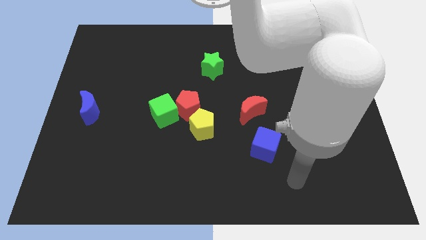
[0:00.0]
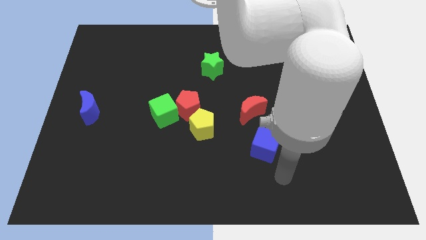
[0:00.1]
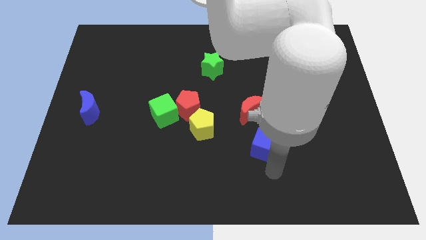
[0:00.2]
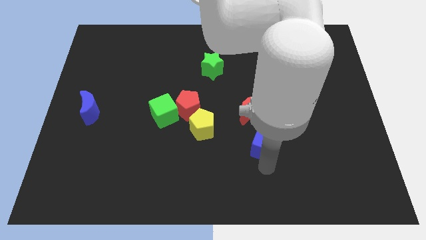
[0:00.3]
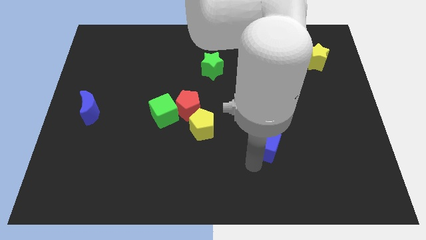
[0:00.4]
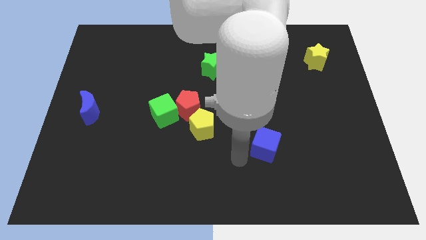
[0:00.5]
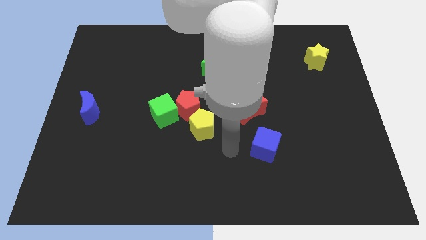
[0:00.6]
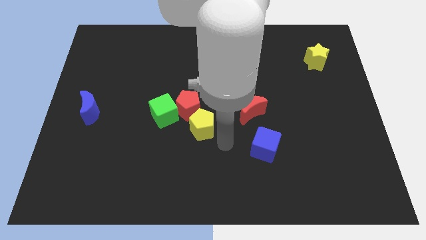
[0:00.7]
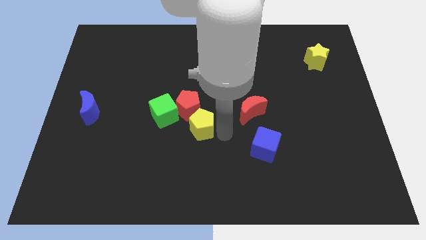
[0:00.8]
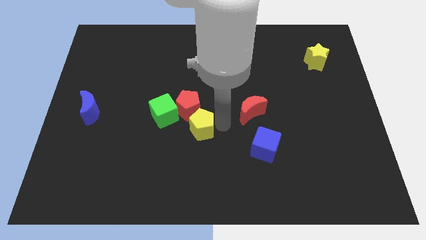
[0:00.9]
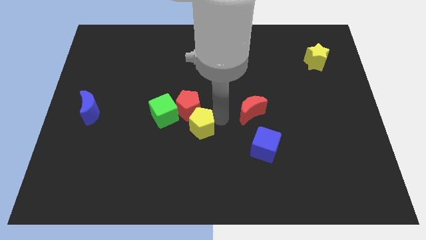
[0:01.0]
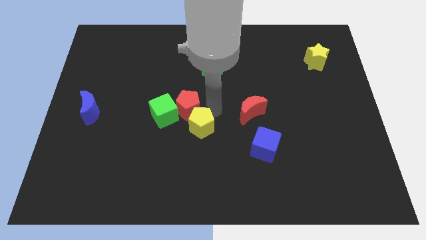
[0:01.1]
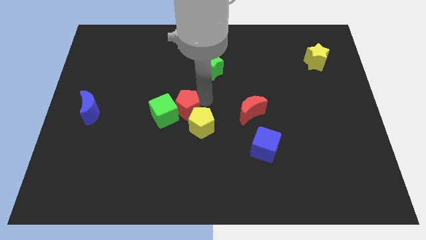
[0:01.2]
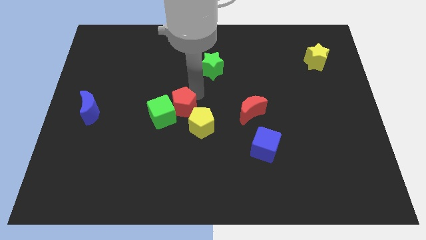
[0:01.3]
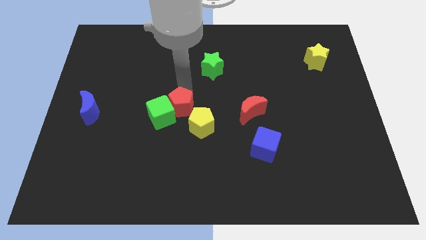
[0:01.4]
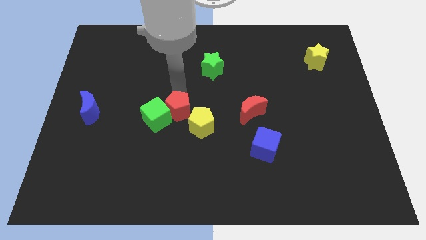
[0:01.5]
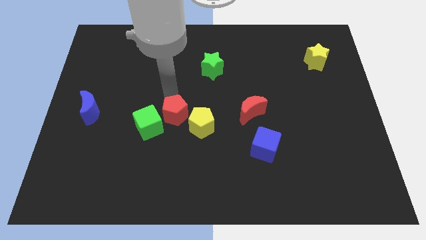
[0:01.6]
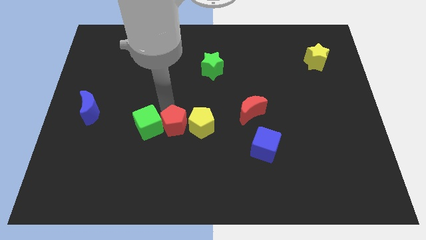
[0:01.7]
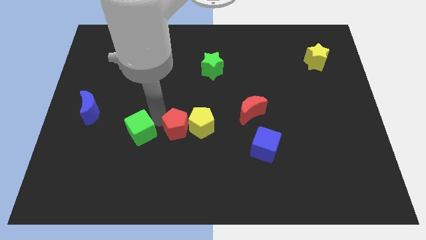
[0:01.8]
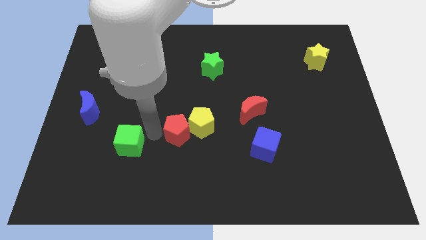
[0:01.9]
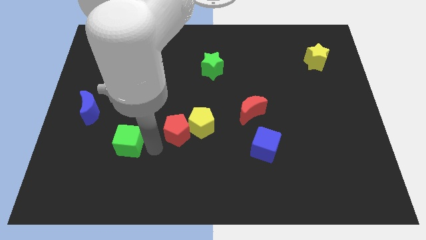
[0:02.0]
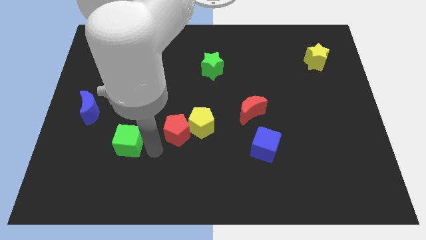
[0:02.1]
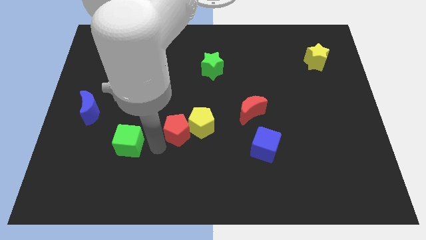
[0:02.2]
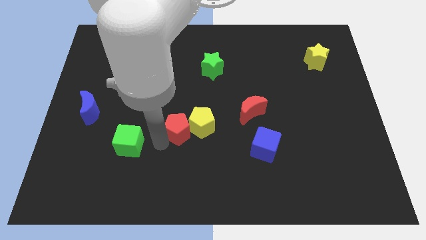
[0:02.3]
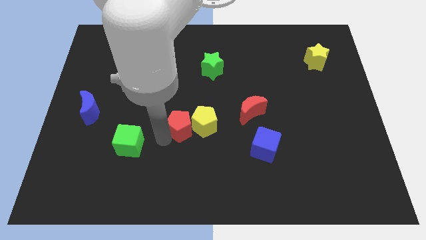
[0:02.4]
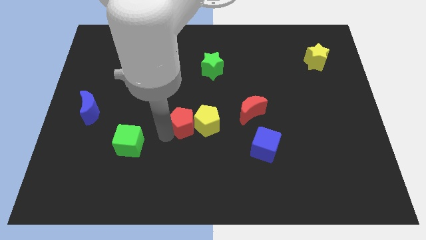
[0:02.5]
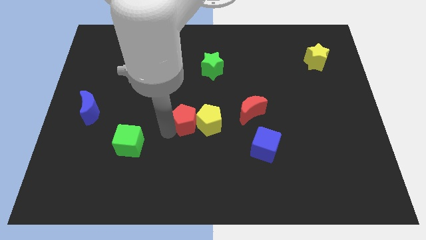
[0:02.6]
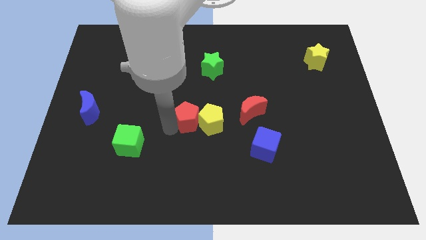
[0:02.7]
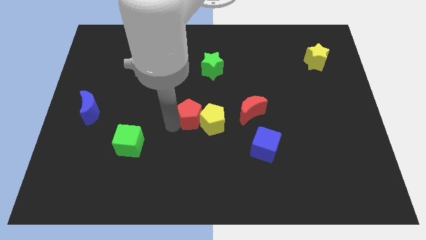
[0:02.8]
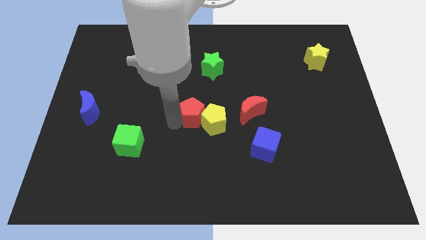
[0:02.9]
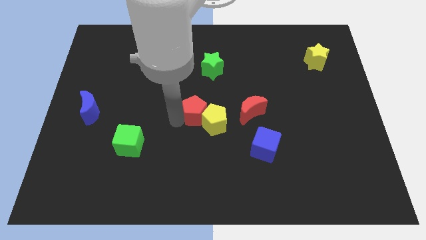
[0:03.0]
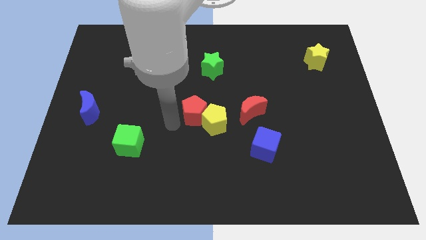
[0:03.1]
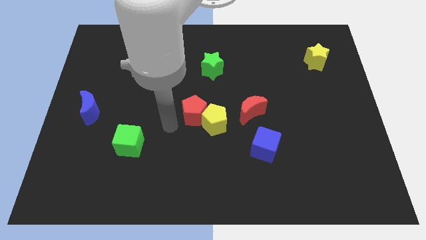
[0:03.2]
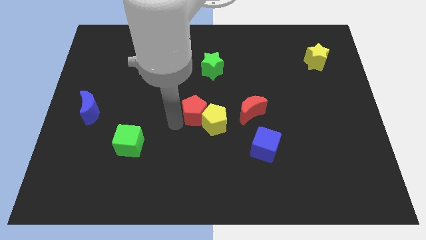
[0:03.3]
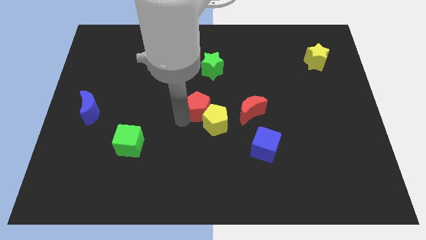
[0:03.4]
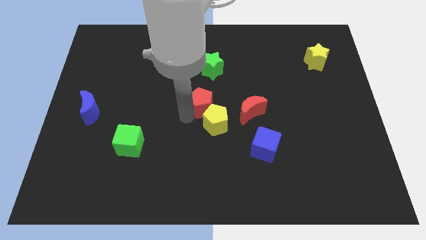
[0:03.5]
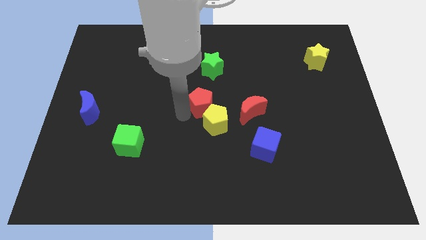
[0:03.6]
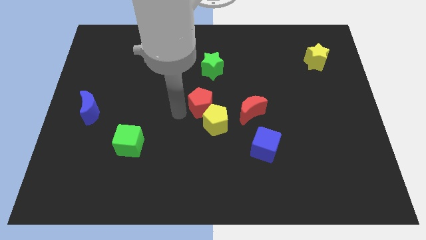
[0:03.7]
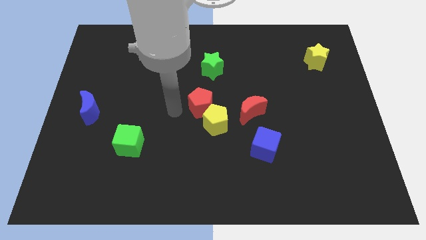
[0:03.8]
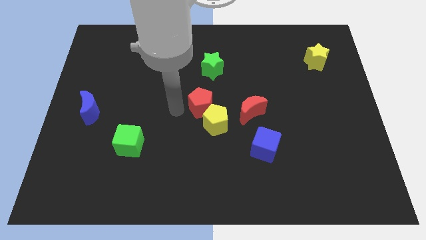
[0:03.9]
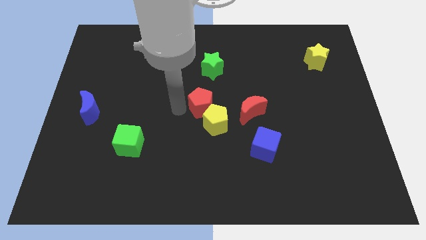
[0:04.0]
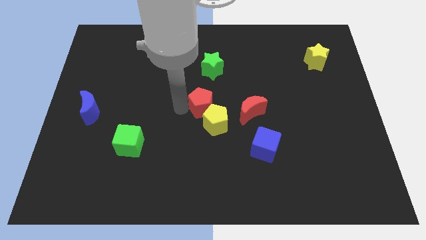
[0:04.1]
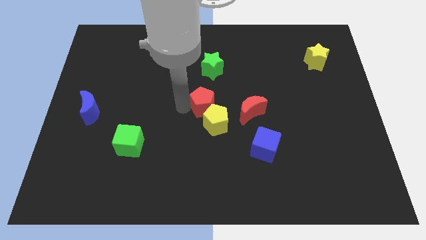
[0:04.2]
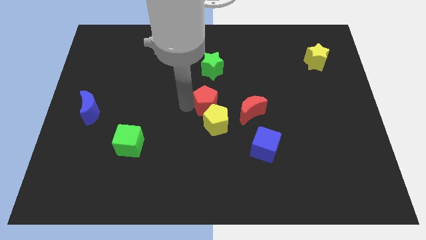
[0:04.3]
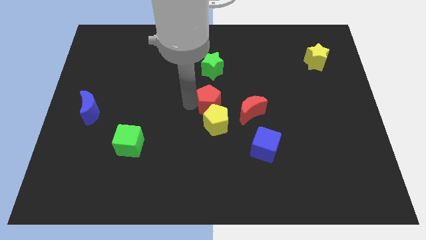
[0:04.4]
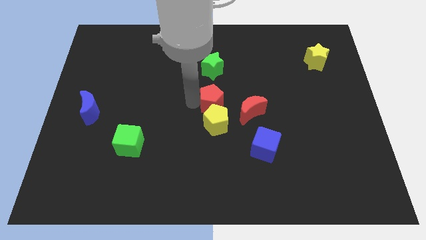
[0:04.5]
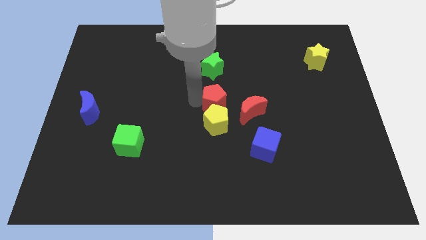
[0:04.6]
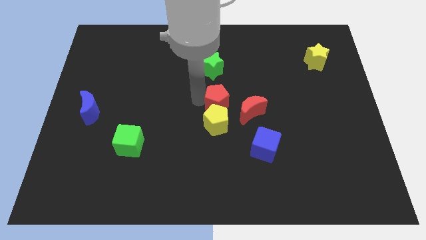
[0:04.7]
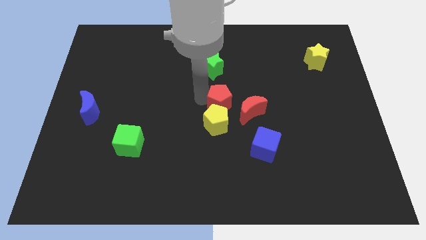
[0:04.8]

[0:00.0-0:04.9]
slide the red pentagon slightly to the right

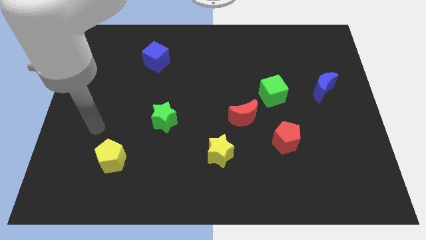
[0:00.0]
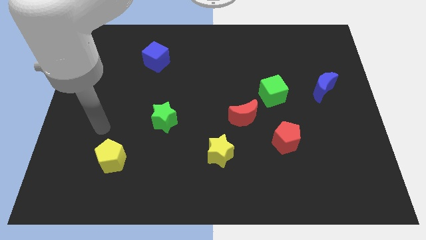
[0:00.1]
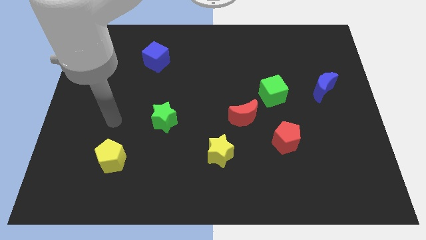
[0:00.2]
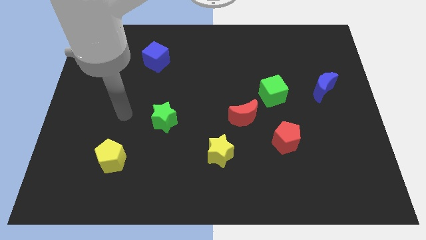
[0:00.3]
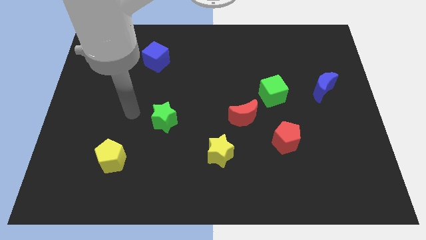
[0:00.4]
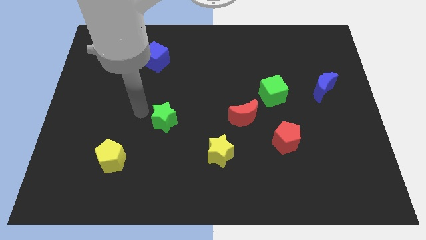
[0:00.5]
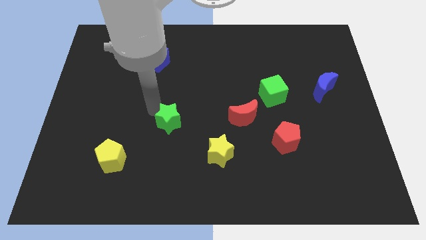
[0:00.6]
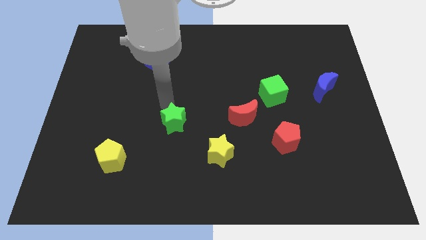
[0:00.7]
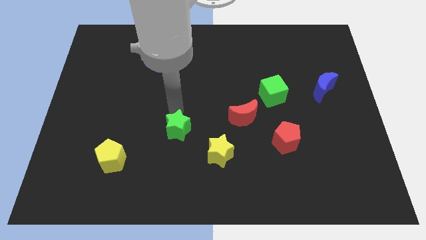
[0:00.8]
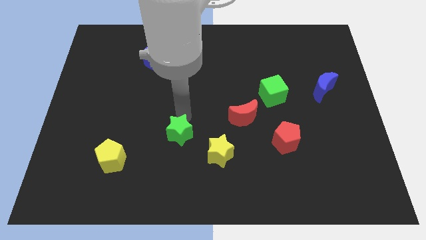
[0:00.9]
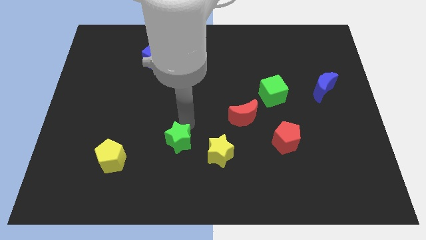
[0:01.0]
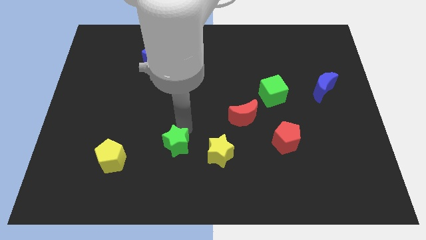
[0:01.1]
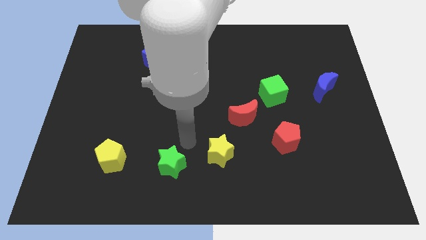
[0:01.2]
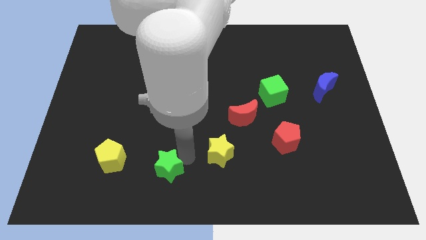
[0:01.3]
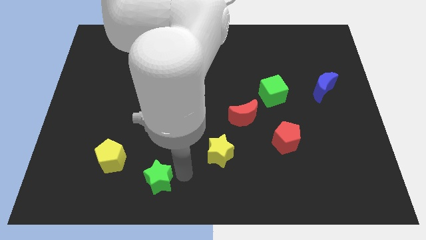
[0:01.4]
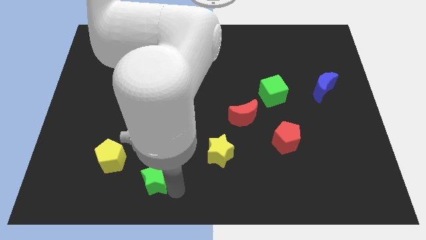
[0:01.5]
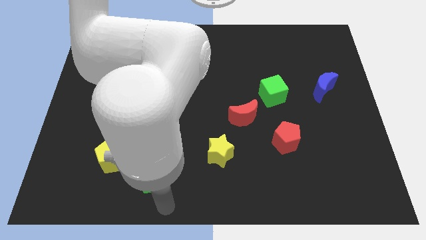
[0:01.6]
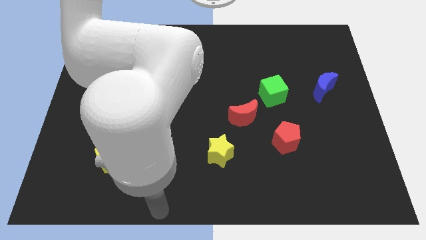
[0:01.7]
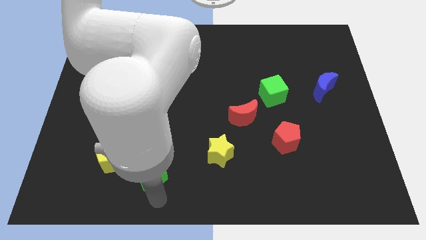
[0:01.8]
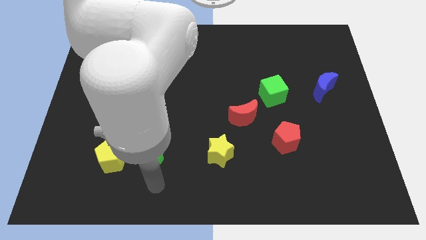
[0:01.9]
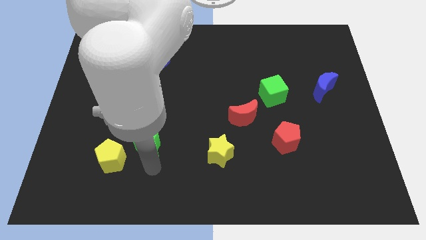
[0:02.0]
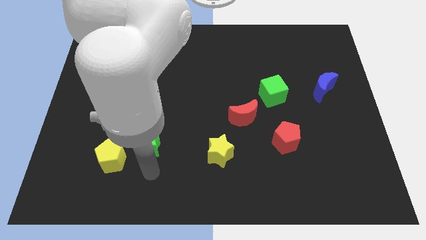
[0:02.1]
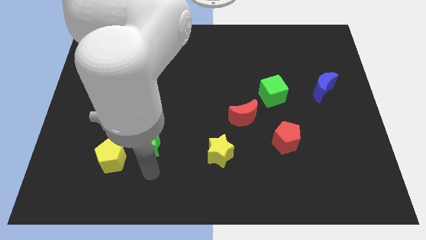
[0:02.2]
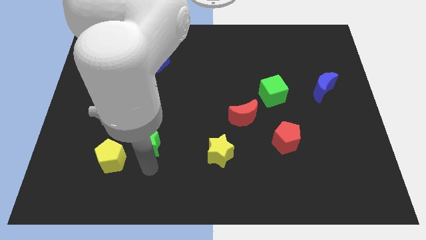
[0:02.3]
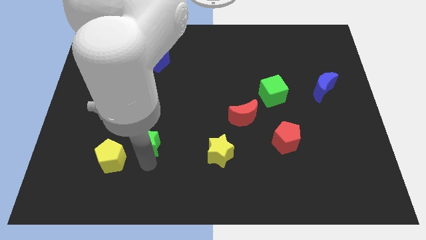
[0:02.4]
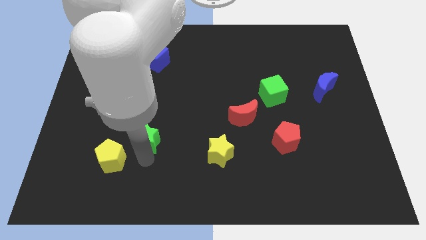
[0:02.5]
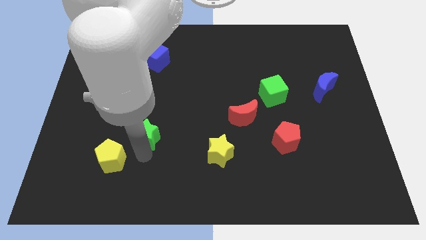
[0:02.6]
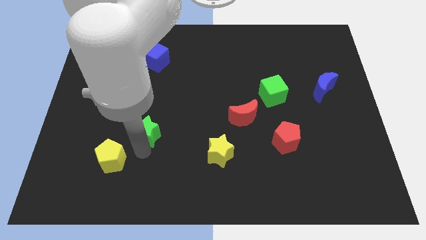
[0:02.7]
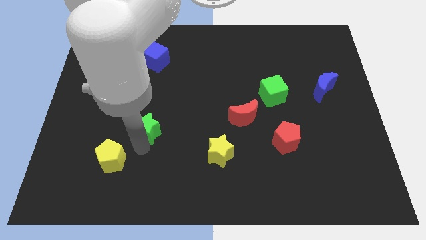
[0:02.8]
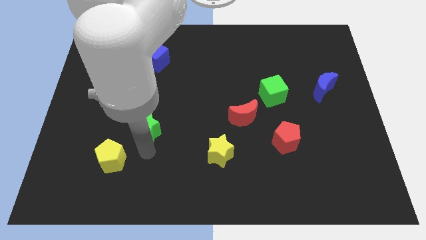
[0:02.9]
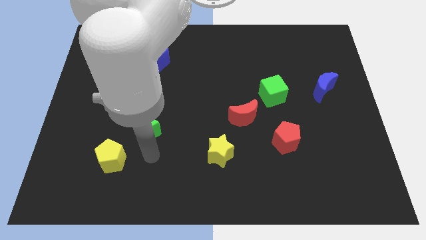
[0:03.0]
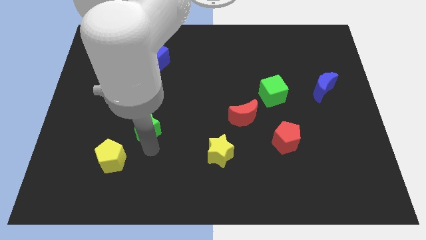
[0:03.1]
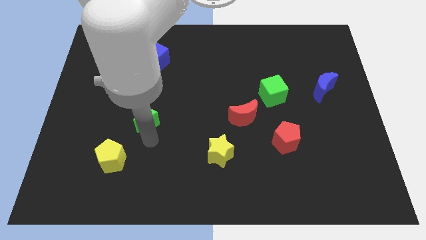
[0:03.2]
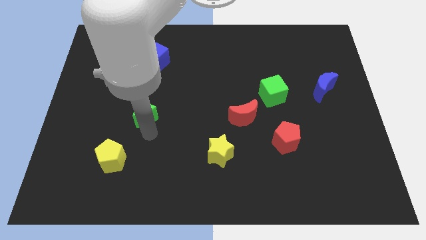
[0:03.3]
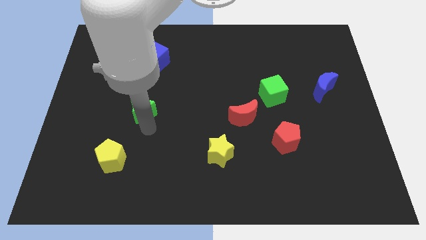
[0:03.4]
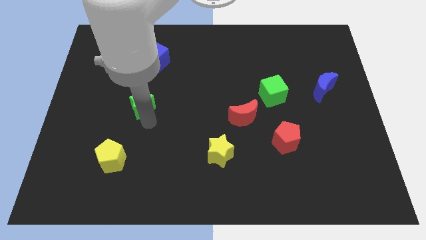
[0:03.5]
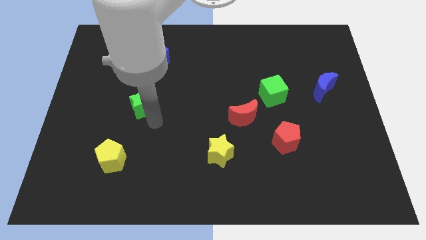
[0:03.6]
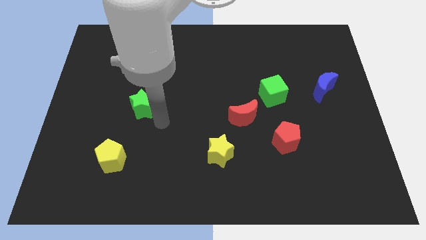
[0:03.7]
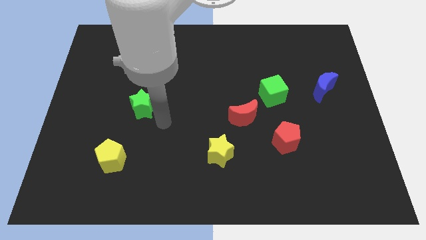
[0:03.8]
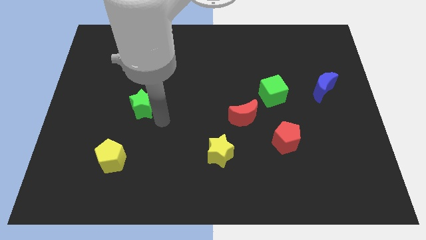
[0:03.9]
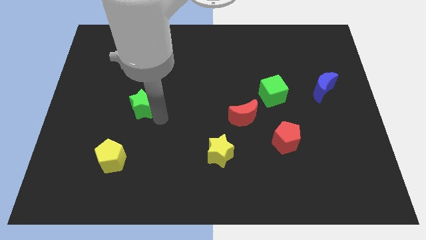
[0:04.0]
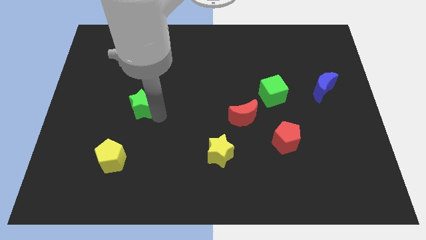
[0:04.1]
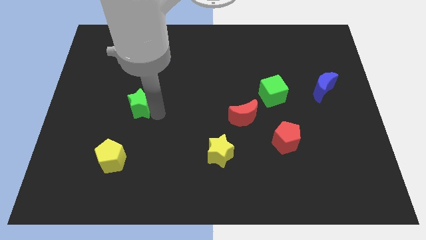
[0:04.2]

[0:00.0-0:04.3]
move the green star a little up and then left
